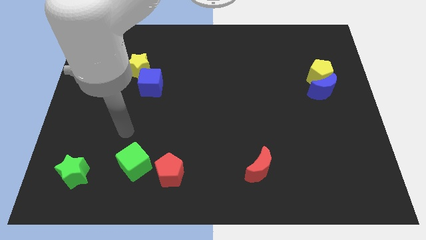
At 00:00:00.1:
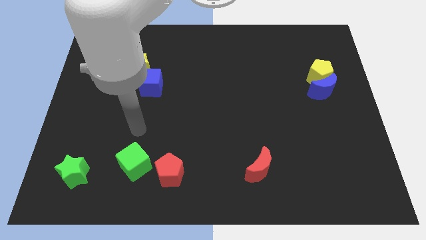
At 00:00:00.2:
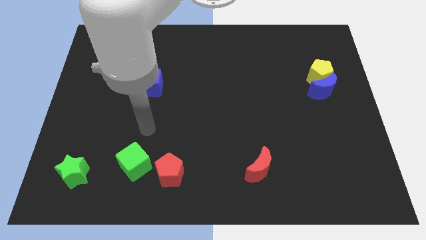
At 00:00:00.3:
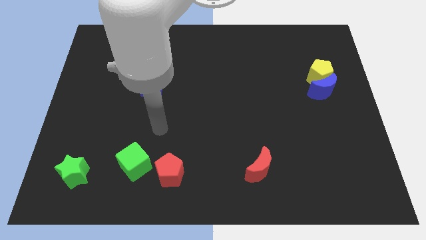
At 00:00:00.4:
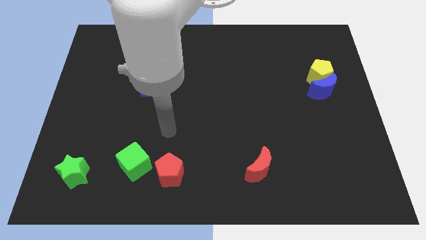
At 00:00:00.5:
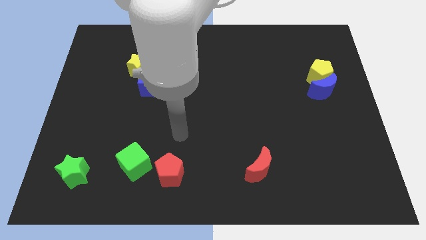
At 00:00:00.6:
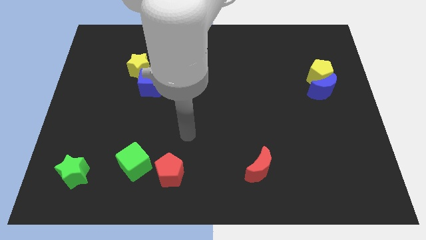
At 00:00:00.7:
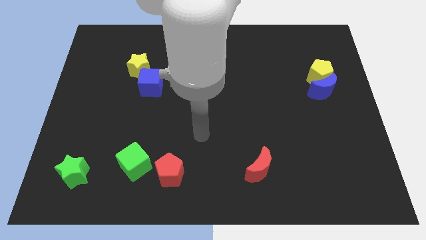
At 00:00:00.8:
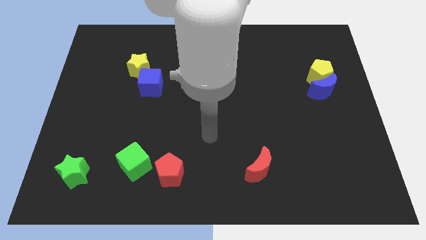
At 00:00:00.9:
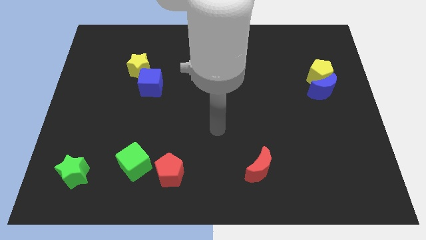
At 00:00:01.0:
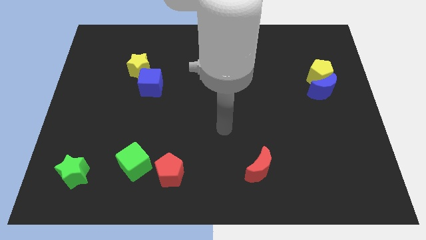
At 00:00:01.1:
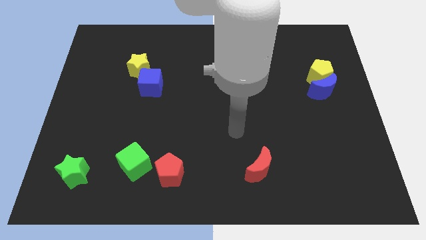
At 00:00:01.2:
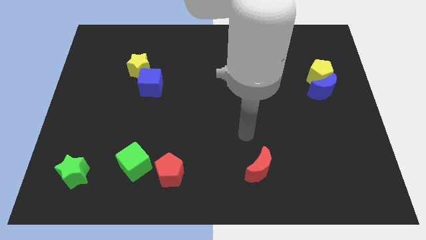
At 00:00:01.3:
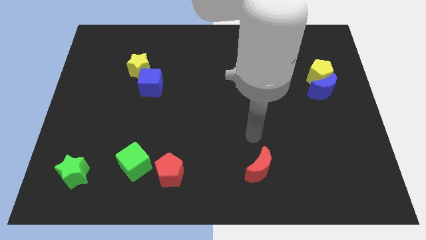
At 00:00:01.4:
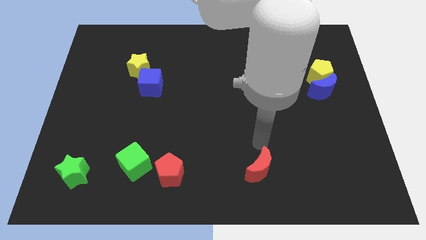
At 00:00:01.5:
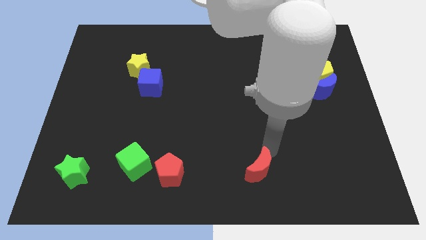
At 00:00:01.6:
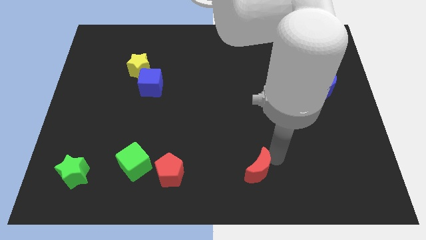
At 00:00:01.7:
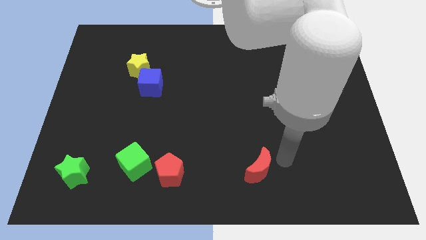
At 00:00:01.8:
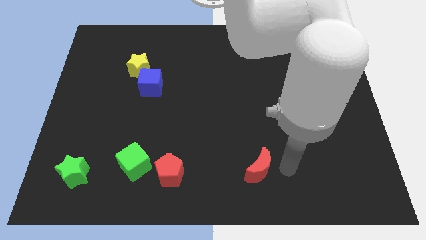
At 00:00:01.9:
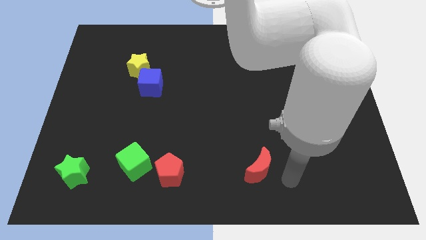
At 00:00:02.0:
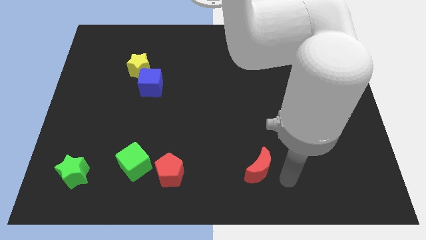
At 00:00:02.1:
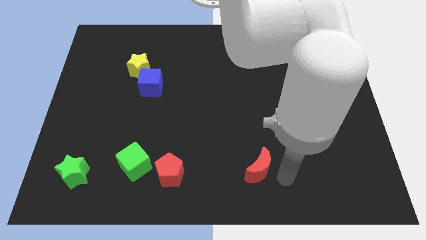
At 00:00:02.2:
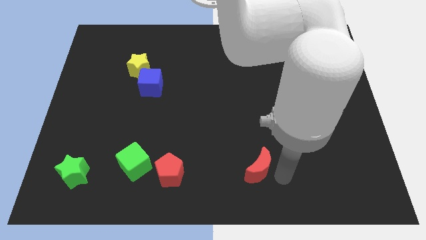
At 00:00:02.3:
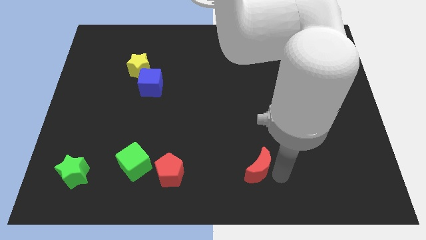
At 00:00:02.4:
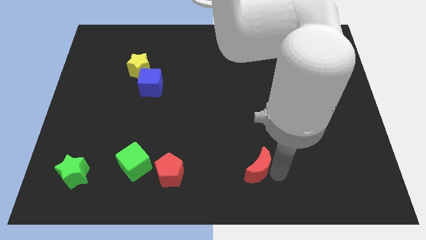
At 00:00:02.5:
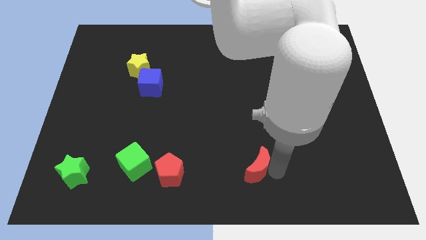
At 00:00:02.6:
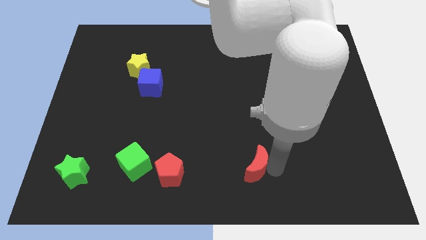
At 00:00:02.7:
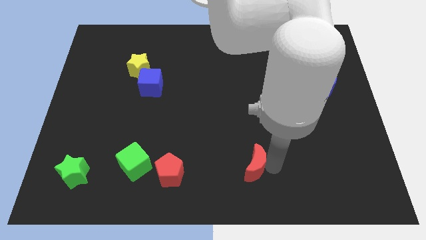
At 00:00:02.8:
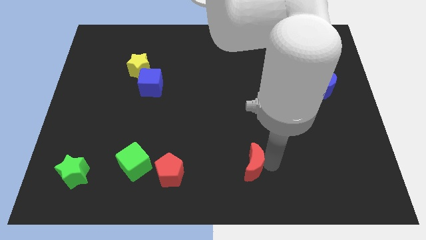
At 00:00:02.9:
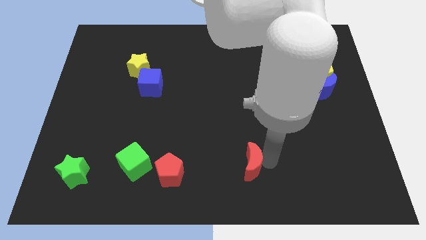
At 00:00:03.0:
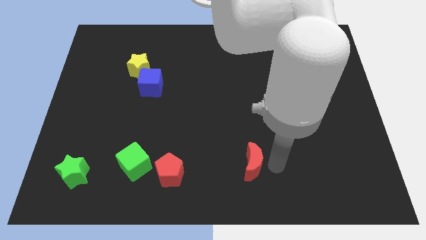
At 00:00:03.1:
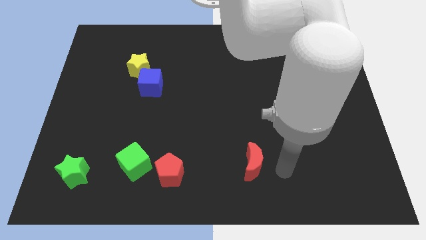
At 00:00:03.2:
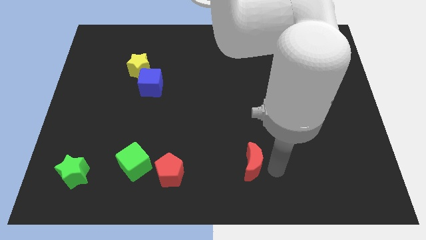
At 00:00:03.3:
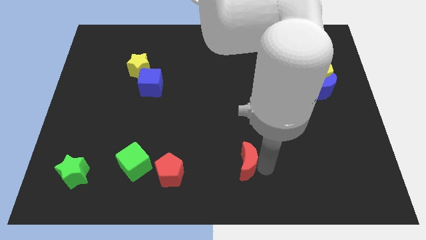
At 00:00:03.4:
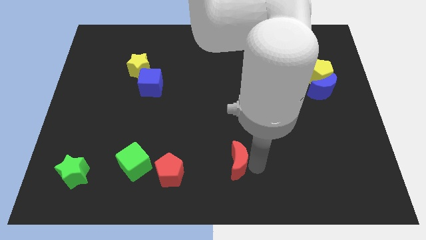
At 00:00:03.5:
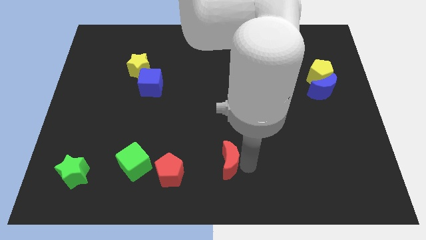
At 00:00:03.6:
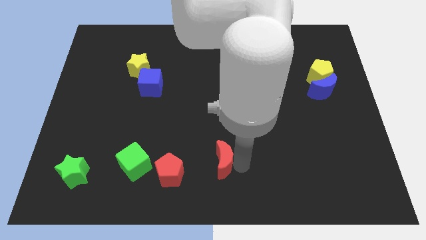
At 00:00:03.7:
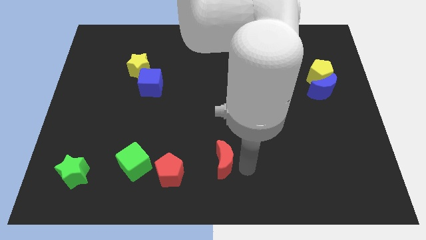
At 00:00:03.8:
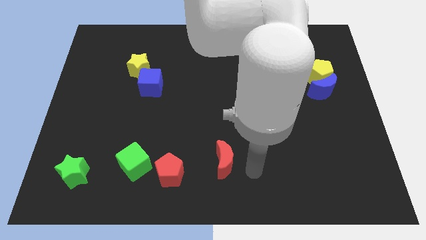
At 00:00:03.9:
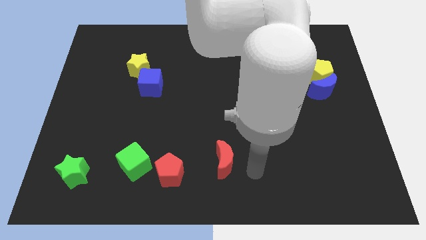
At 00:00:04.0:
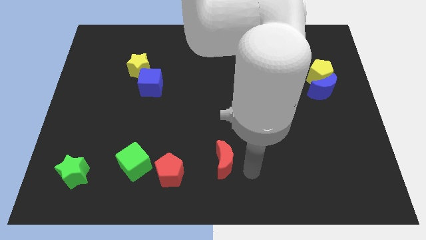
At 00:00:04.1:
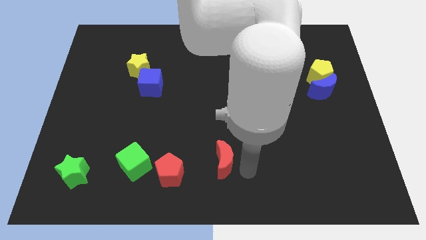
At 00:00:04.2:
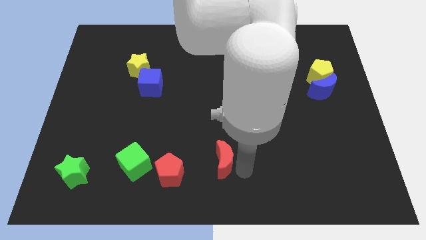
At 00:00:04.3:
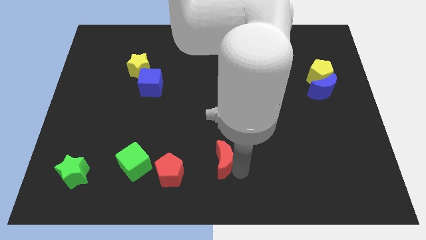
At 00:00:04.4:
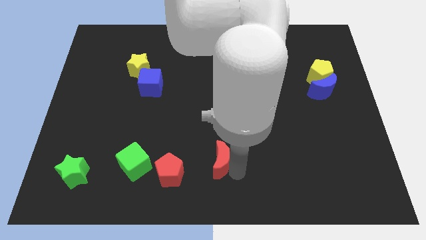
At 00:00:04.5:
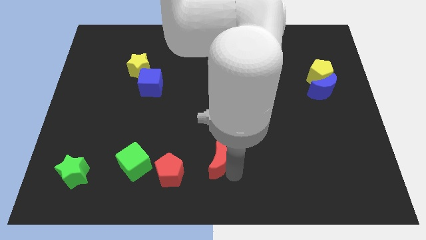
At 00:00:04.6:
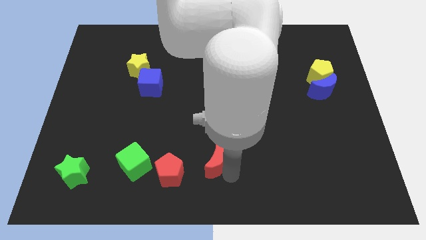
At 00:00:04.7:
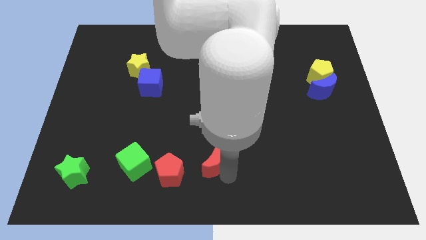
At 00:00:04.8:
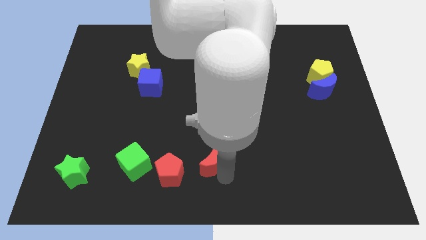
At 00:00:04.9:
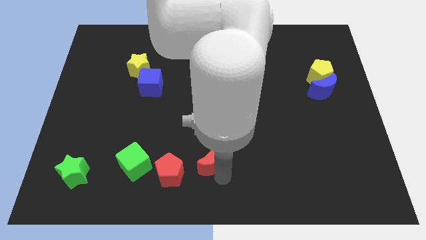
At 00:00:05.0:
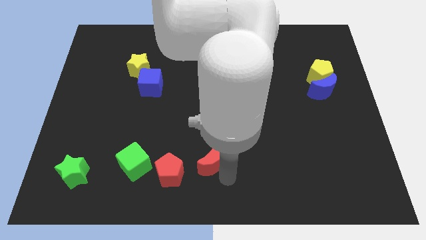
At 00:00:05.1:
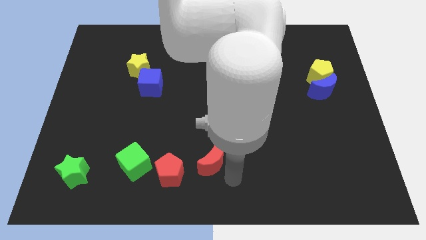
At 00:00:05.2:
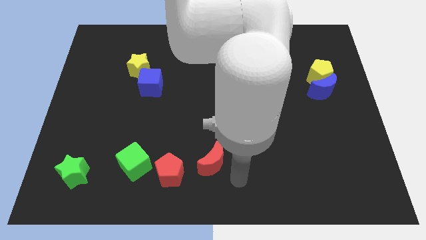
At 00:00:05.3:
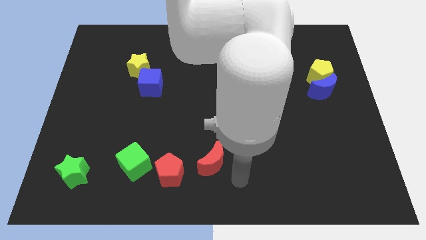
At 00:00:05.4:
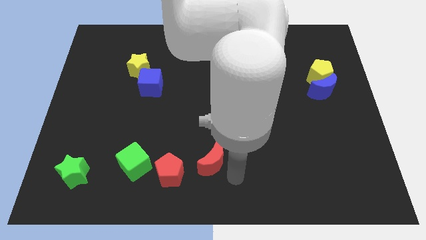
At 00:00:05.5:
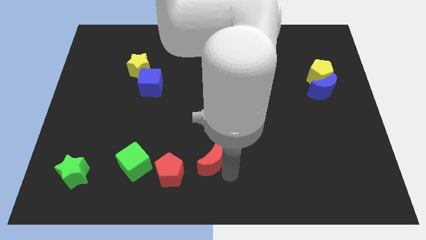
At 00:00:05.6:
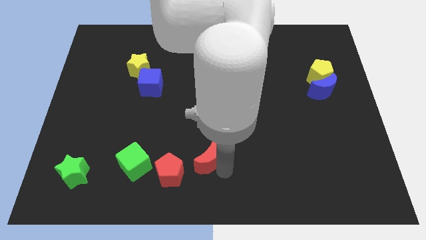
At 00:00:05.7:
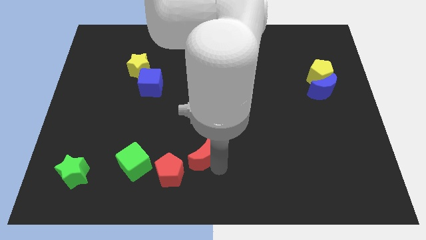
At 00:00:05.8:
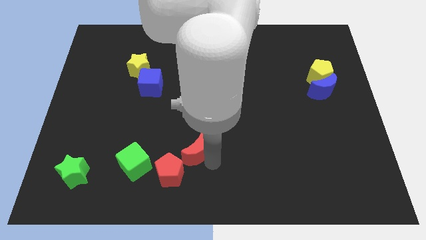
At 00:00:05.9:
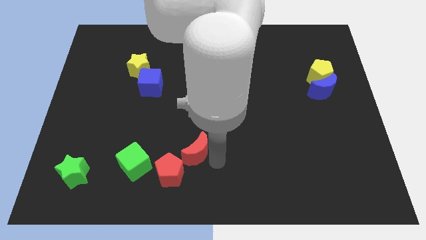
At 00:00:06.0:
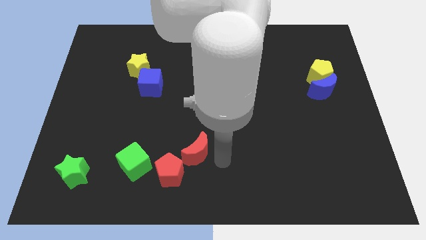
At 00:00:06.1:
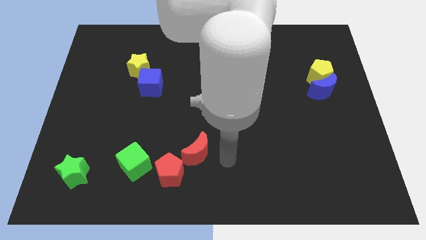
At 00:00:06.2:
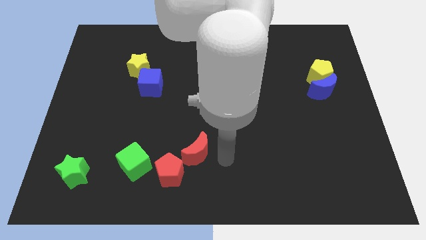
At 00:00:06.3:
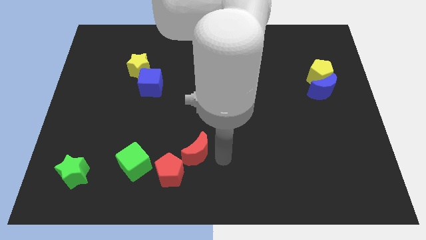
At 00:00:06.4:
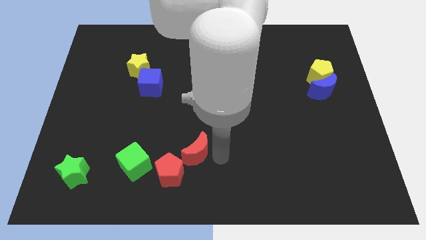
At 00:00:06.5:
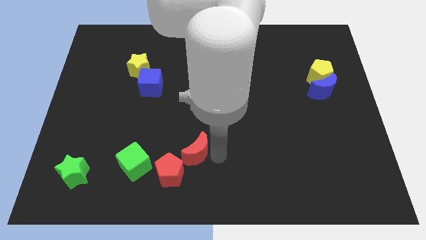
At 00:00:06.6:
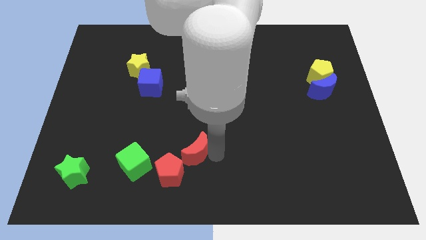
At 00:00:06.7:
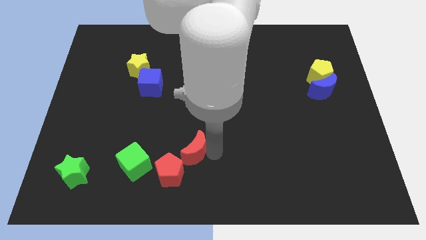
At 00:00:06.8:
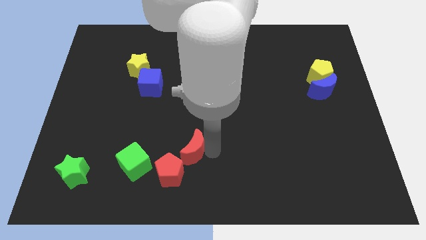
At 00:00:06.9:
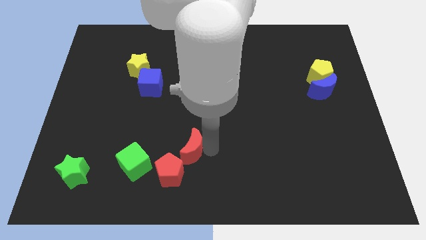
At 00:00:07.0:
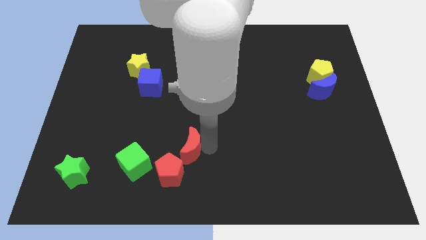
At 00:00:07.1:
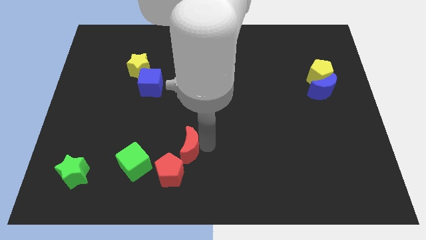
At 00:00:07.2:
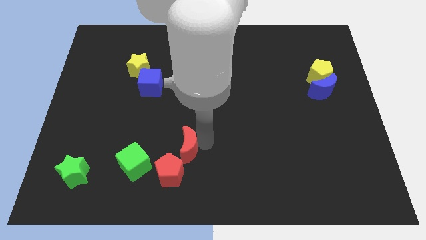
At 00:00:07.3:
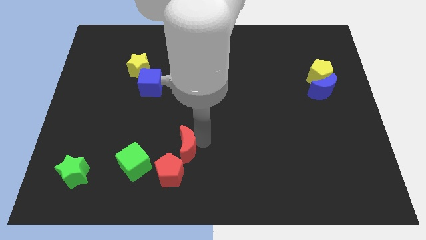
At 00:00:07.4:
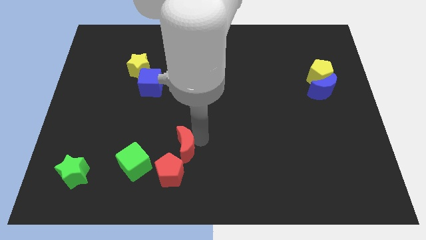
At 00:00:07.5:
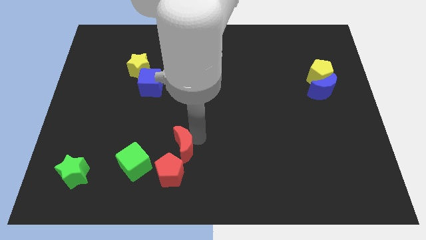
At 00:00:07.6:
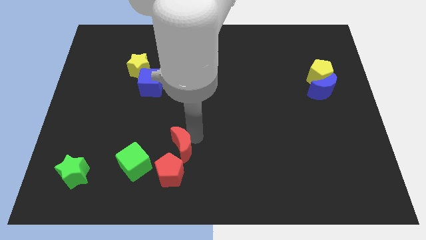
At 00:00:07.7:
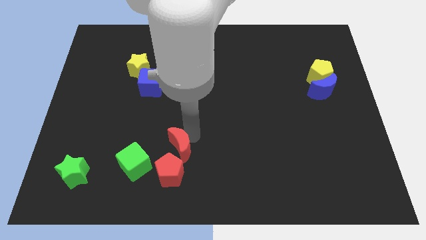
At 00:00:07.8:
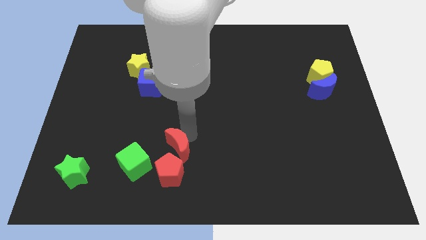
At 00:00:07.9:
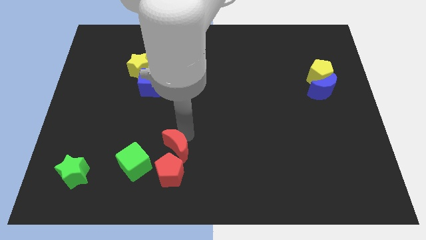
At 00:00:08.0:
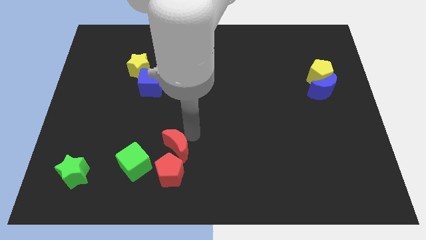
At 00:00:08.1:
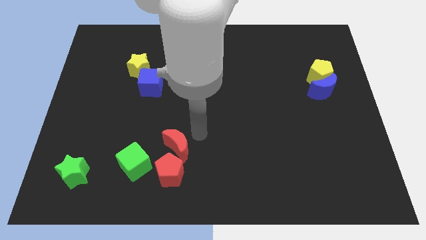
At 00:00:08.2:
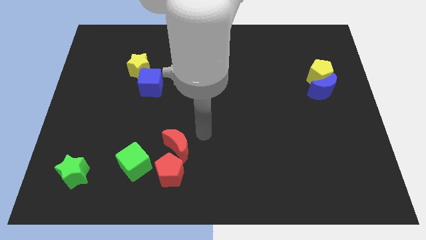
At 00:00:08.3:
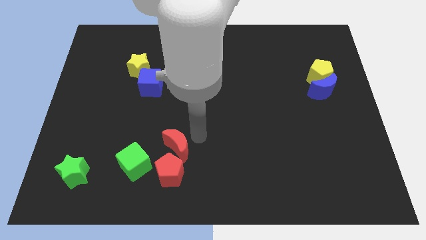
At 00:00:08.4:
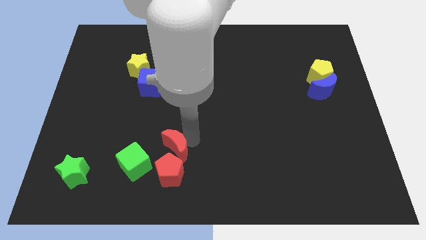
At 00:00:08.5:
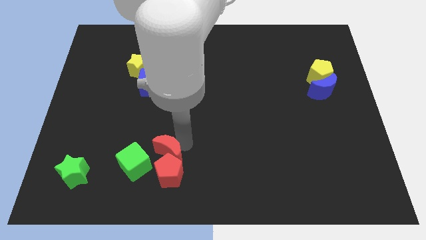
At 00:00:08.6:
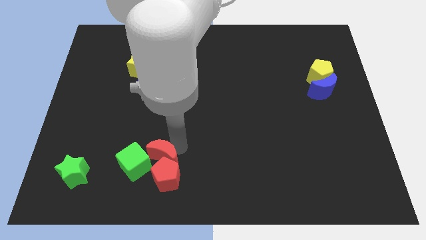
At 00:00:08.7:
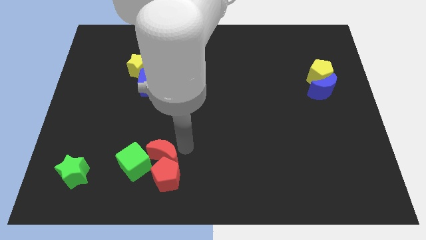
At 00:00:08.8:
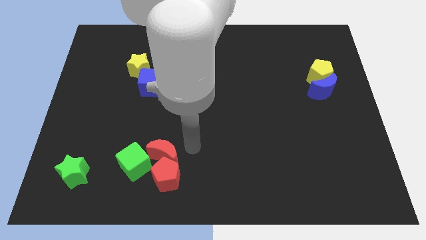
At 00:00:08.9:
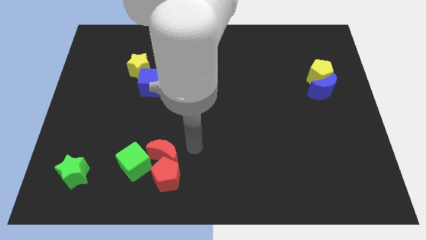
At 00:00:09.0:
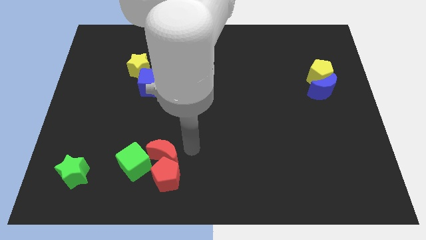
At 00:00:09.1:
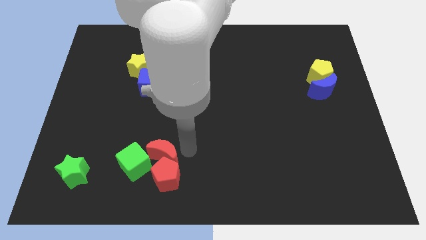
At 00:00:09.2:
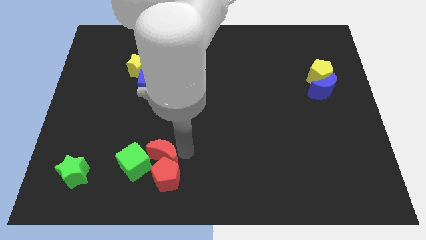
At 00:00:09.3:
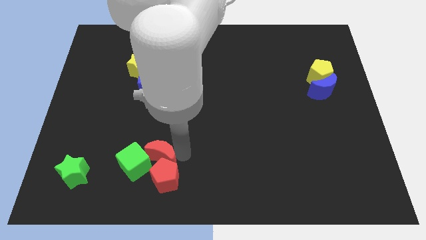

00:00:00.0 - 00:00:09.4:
put the red moon close to the green cube
